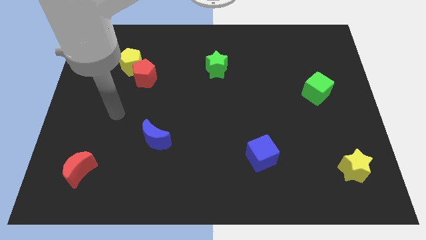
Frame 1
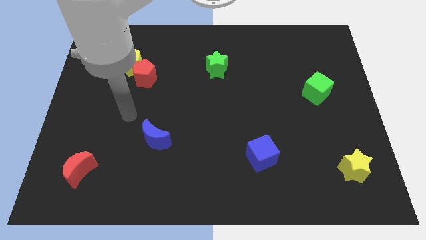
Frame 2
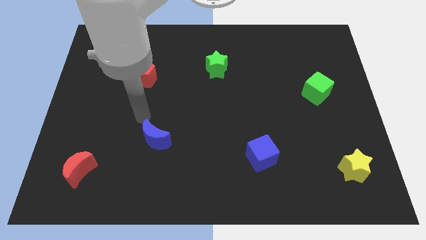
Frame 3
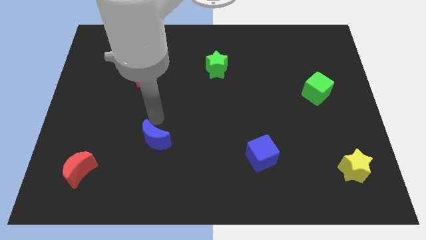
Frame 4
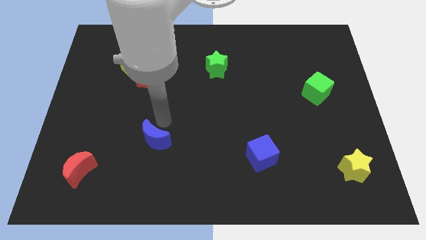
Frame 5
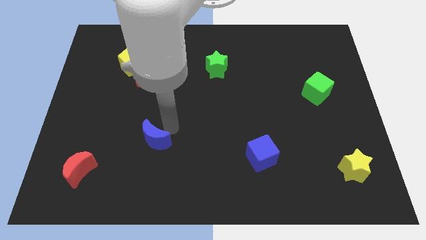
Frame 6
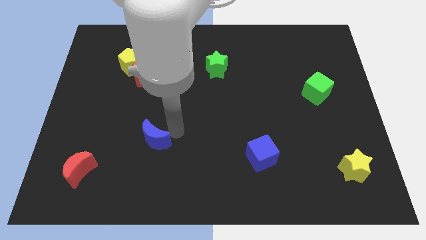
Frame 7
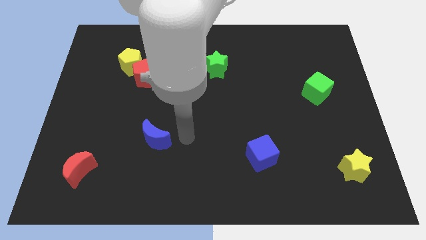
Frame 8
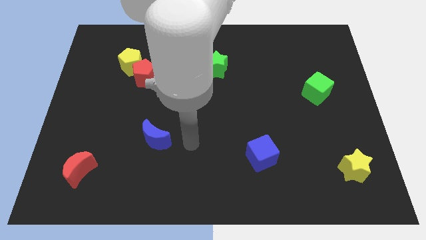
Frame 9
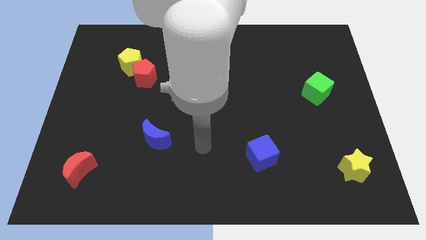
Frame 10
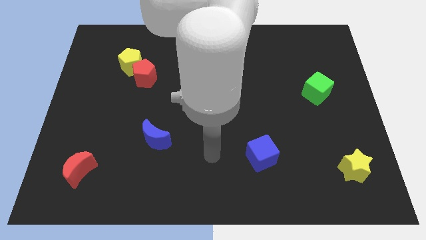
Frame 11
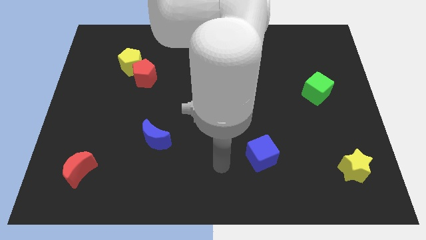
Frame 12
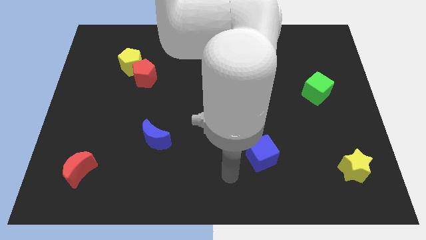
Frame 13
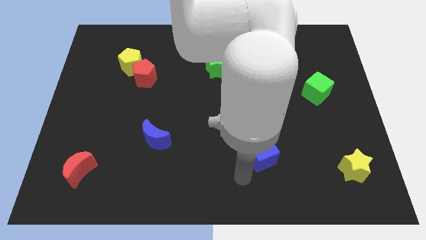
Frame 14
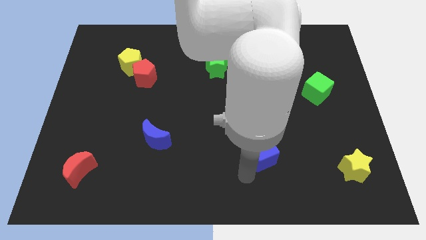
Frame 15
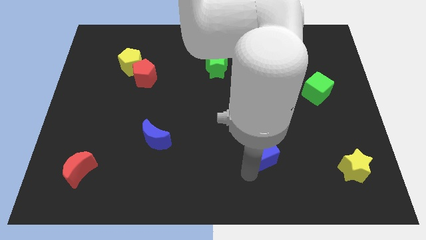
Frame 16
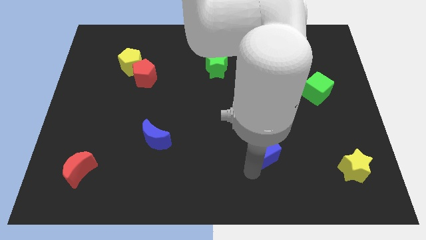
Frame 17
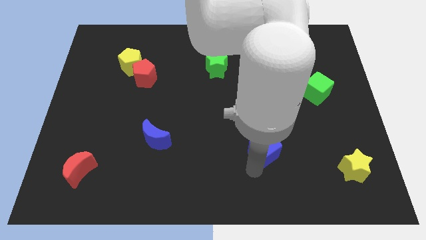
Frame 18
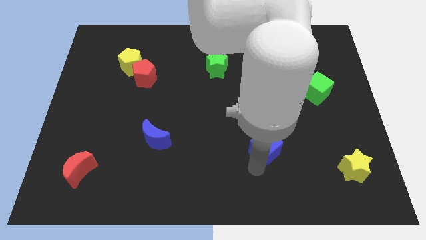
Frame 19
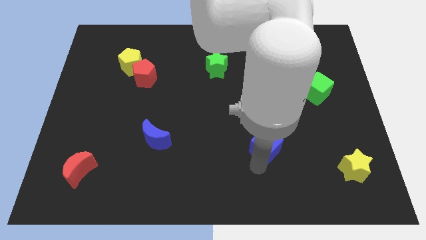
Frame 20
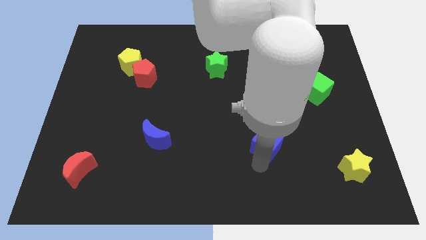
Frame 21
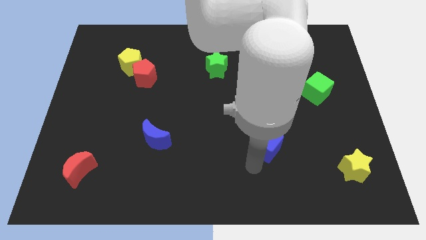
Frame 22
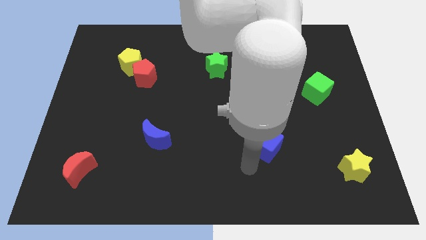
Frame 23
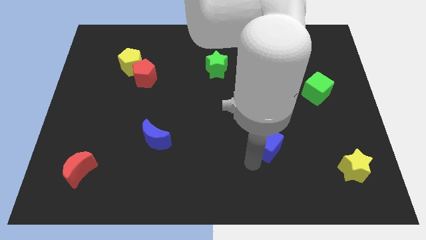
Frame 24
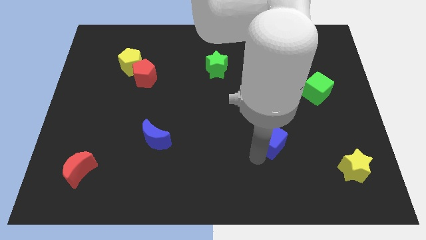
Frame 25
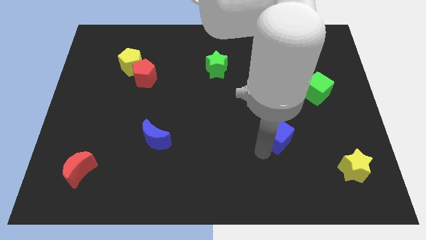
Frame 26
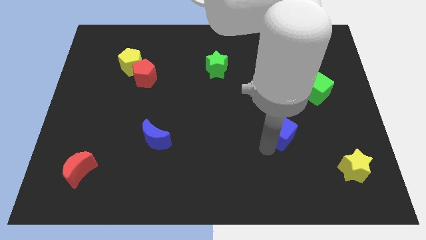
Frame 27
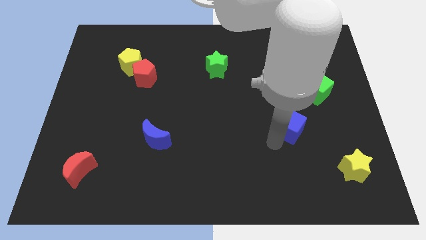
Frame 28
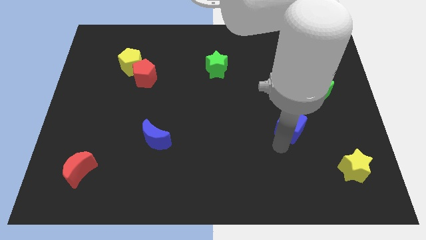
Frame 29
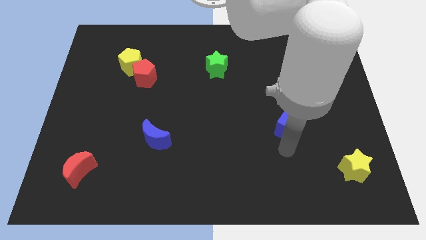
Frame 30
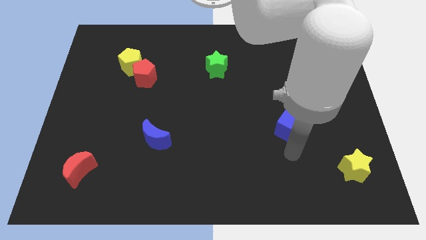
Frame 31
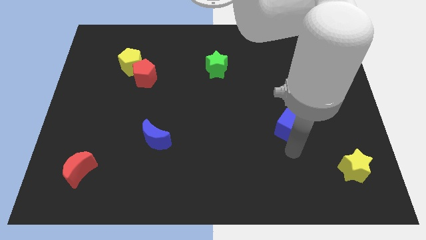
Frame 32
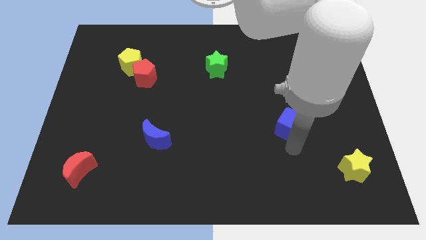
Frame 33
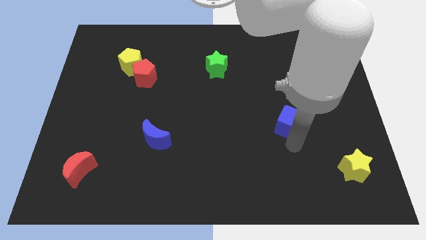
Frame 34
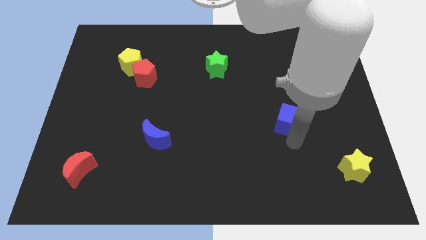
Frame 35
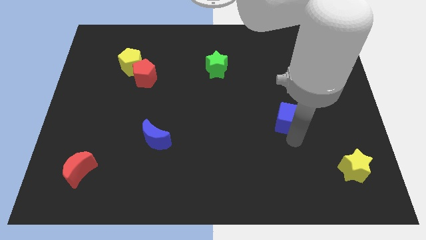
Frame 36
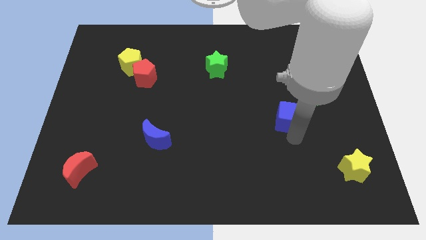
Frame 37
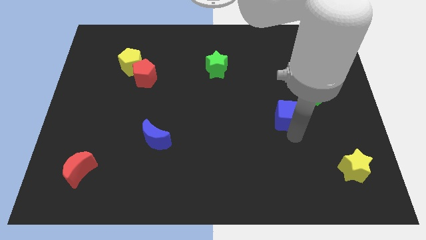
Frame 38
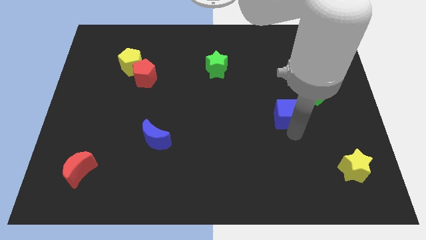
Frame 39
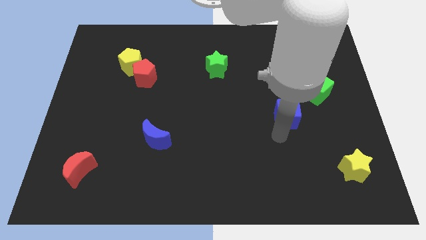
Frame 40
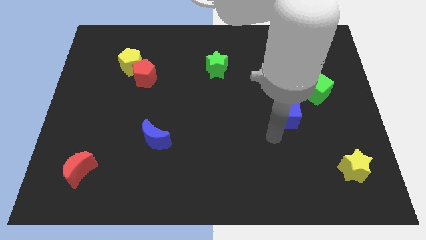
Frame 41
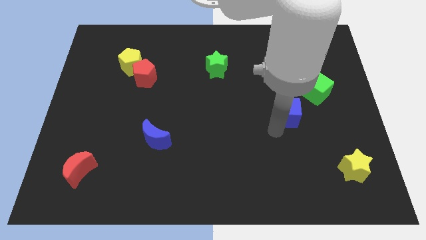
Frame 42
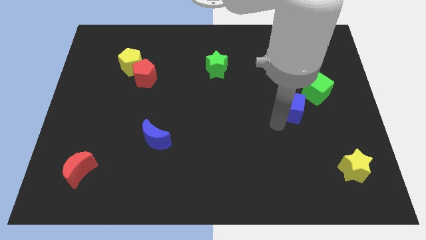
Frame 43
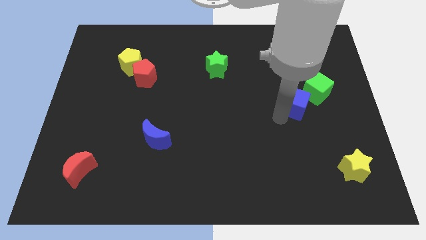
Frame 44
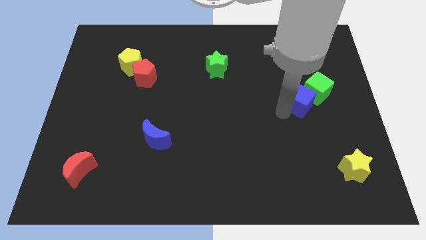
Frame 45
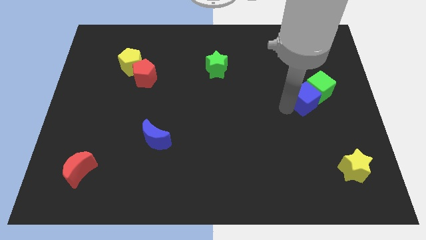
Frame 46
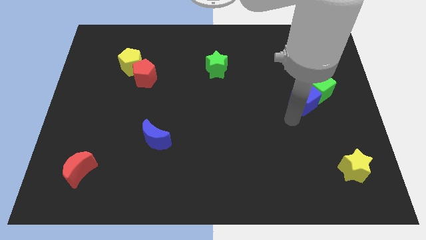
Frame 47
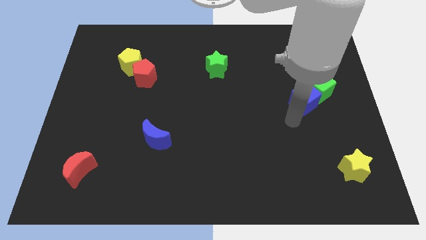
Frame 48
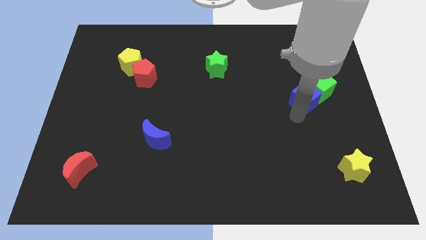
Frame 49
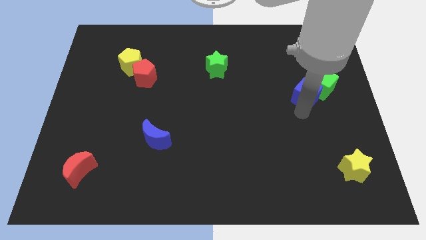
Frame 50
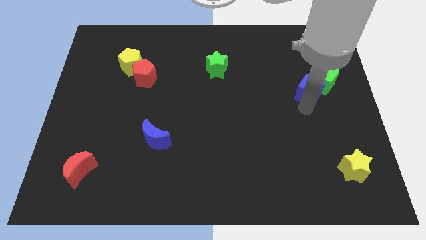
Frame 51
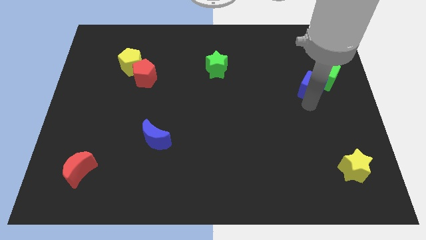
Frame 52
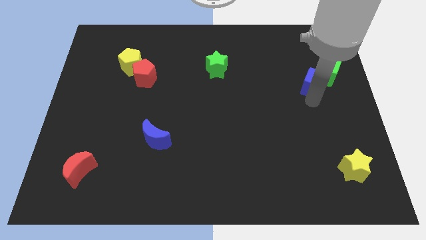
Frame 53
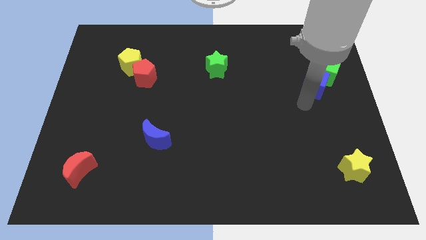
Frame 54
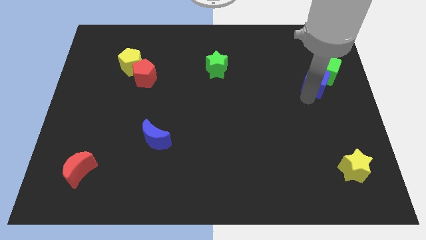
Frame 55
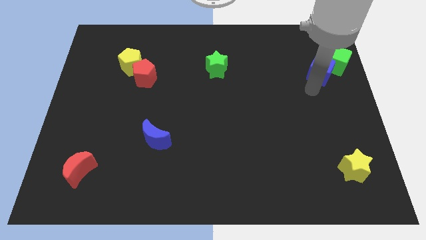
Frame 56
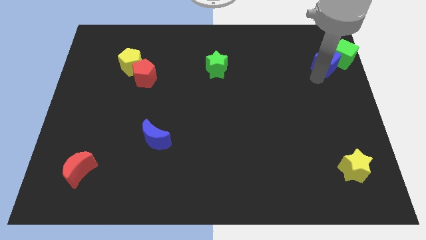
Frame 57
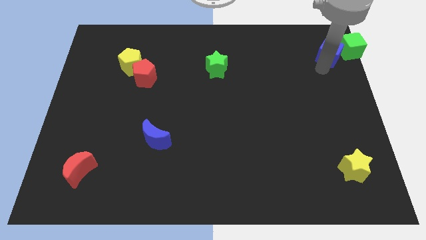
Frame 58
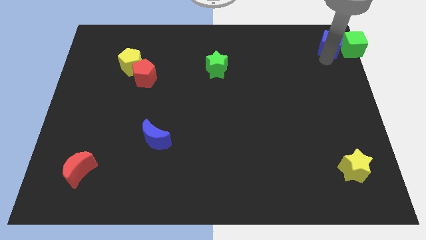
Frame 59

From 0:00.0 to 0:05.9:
push the blue cube to the top right of the board

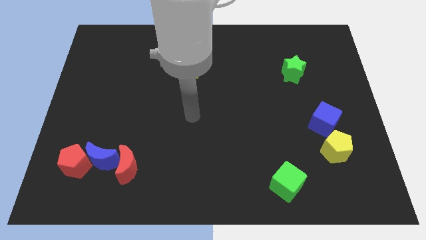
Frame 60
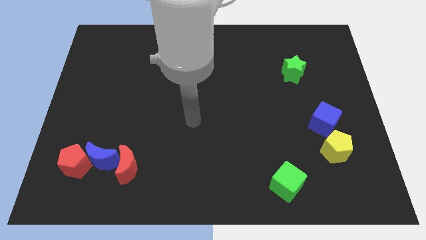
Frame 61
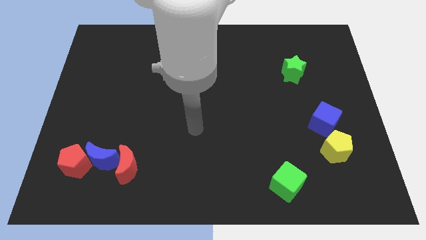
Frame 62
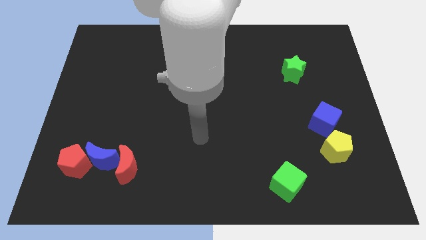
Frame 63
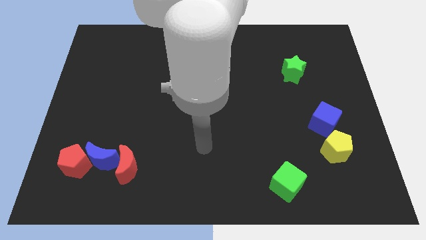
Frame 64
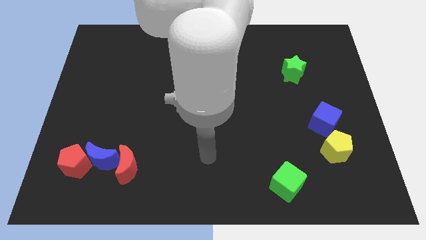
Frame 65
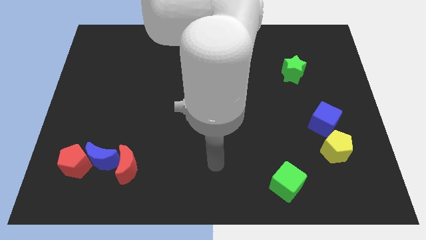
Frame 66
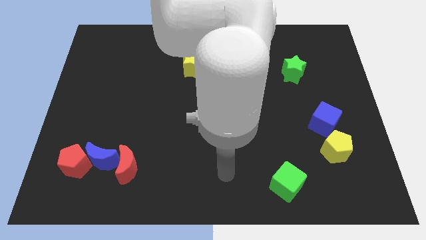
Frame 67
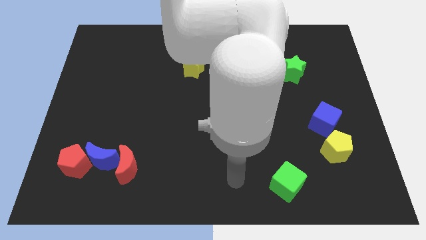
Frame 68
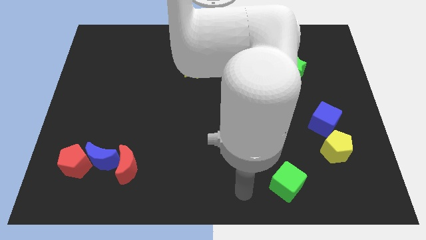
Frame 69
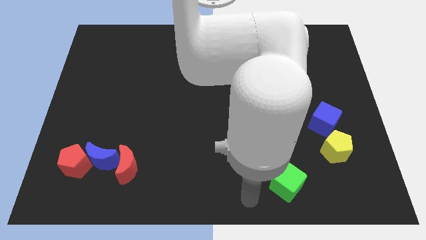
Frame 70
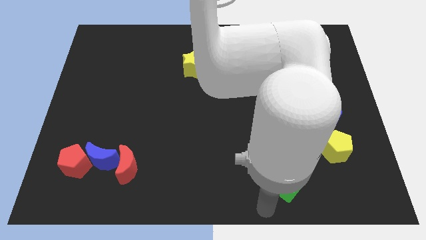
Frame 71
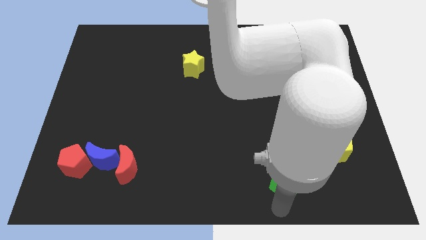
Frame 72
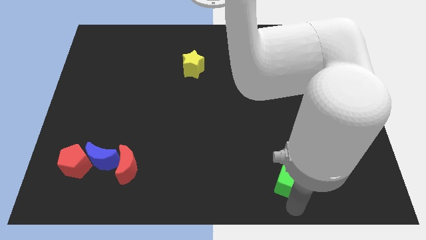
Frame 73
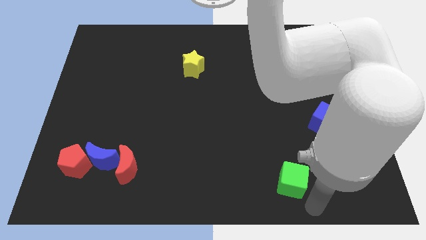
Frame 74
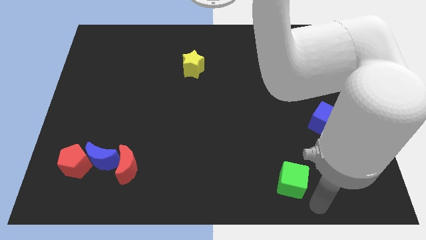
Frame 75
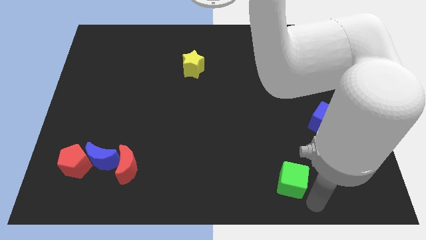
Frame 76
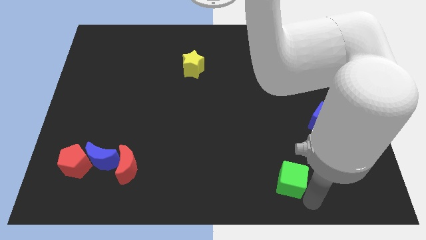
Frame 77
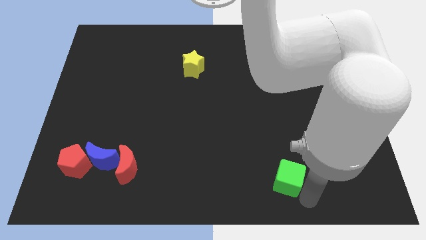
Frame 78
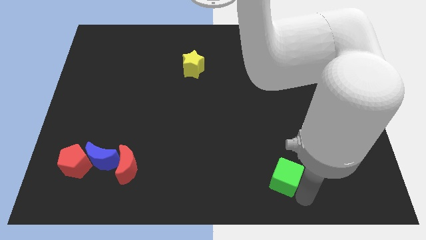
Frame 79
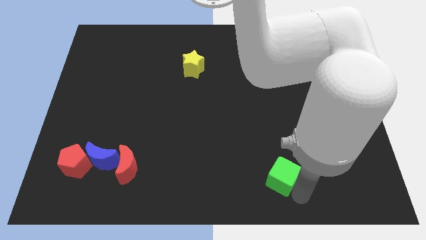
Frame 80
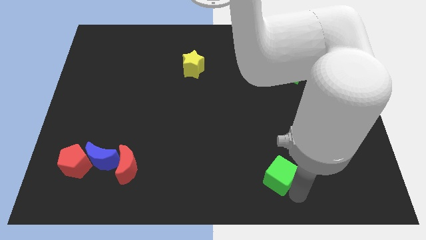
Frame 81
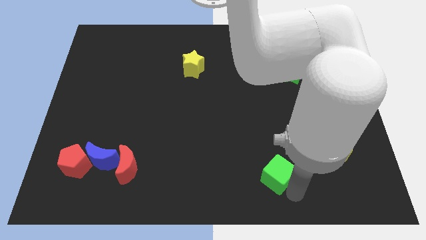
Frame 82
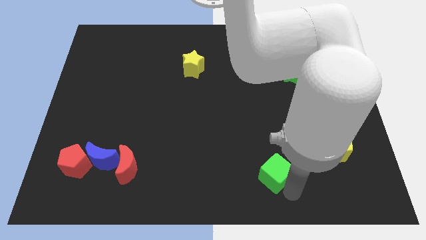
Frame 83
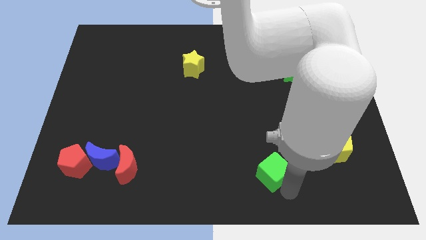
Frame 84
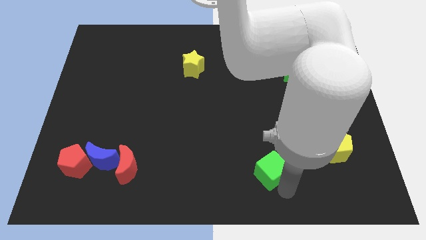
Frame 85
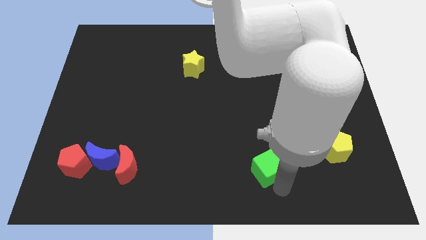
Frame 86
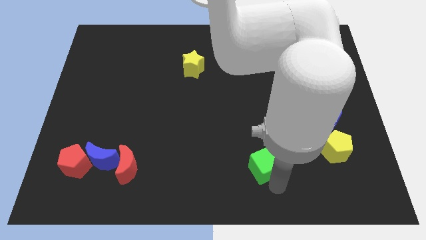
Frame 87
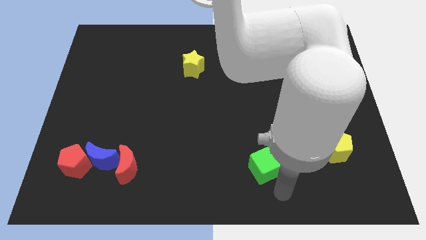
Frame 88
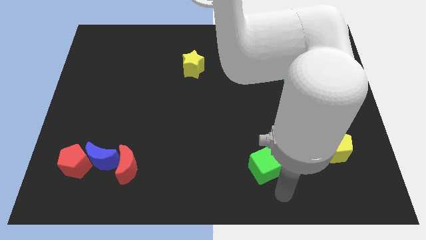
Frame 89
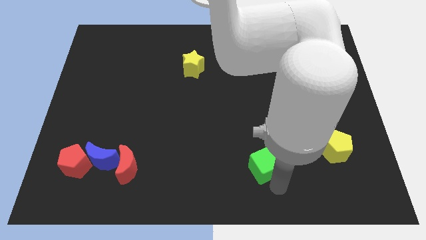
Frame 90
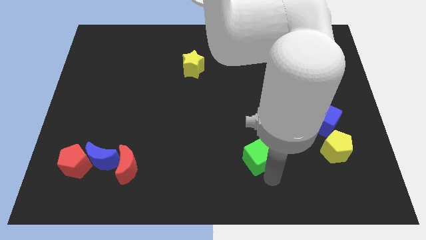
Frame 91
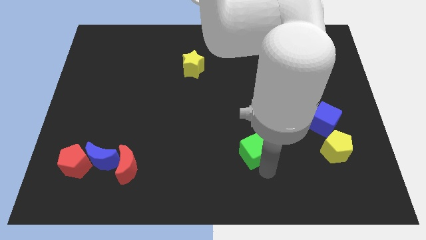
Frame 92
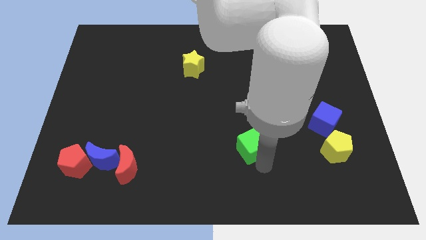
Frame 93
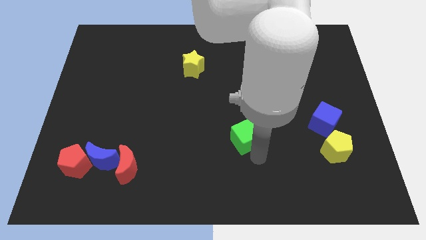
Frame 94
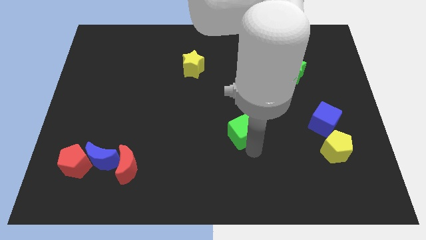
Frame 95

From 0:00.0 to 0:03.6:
slide the green cube to the center of the board
